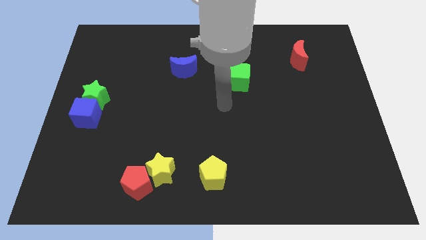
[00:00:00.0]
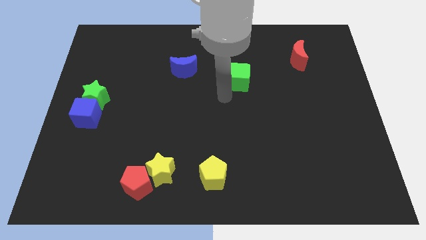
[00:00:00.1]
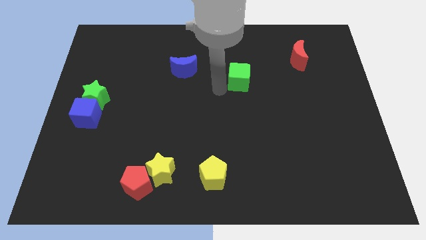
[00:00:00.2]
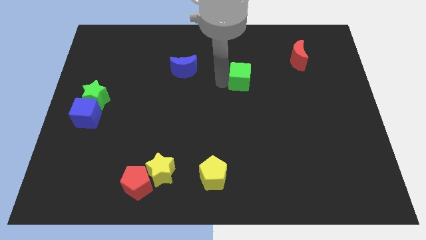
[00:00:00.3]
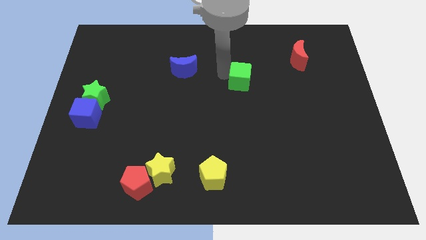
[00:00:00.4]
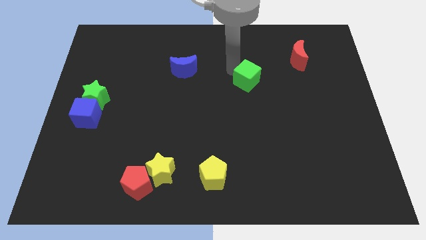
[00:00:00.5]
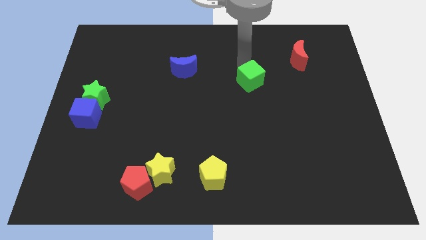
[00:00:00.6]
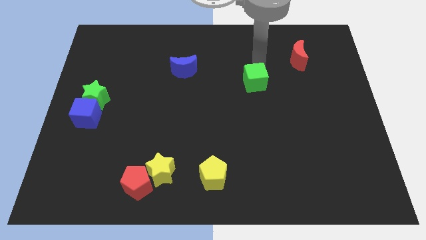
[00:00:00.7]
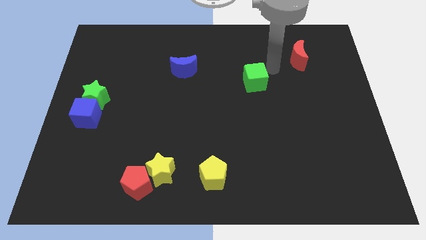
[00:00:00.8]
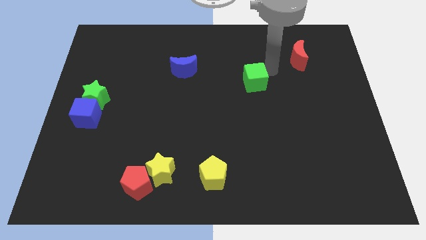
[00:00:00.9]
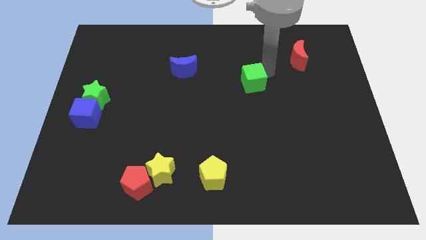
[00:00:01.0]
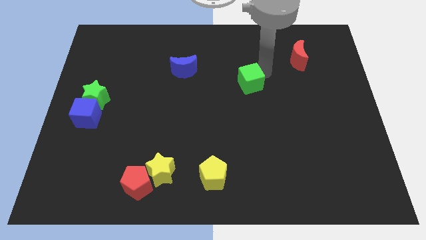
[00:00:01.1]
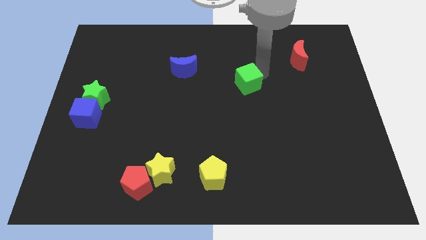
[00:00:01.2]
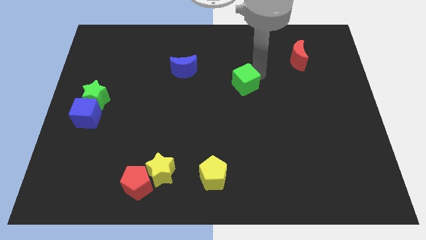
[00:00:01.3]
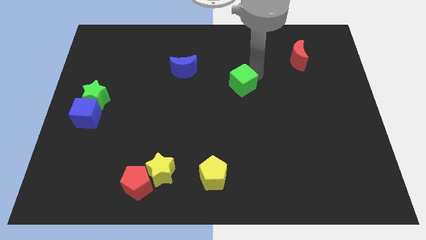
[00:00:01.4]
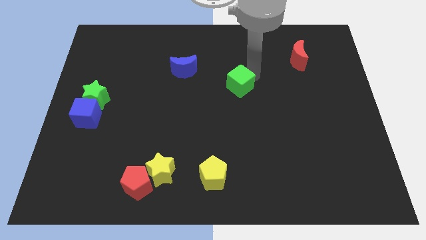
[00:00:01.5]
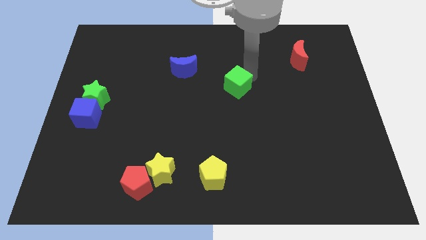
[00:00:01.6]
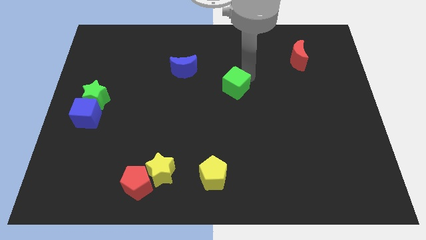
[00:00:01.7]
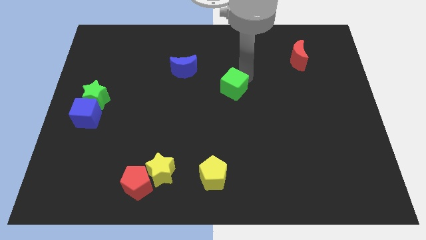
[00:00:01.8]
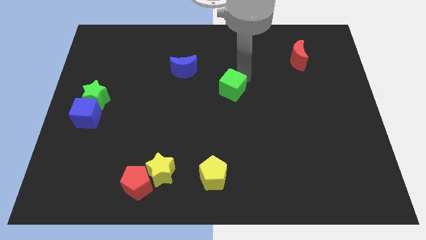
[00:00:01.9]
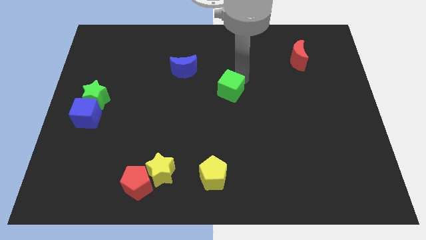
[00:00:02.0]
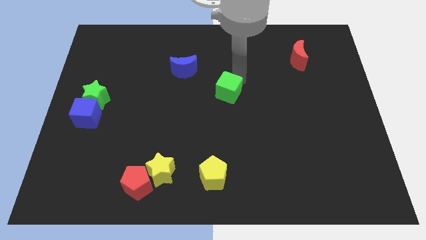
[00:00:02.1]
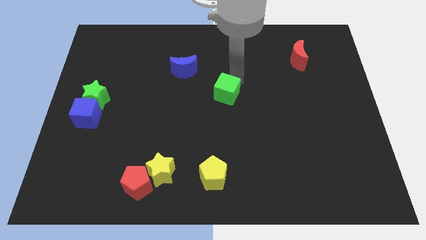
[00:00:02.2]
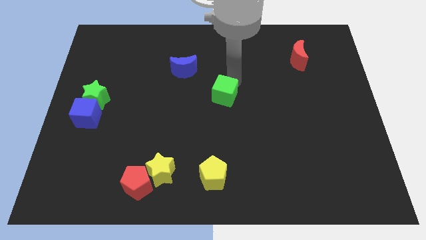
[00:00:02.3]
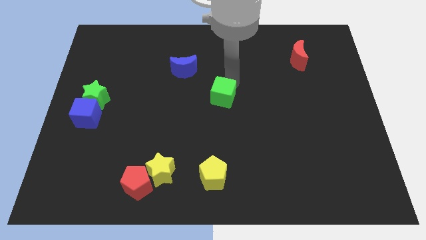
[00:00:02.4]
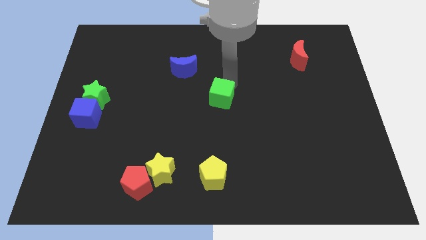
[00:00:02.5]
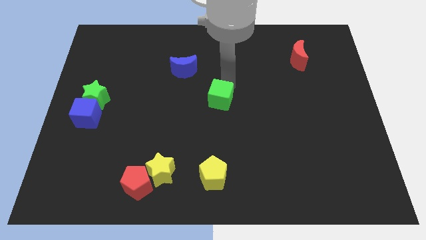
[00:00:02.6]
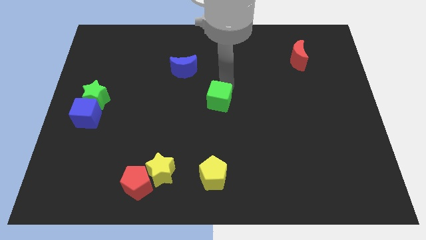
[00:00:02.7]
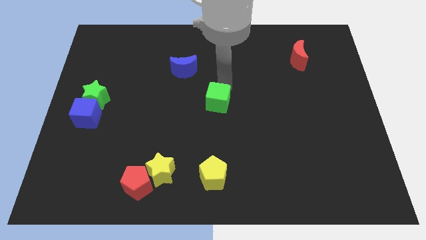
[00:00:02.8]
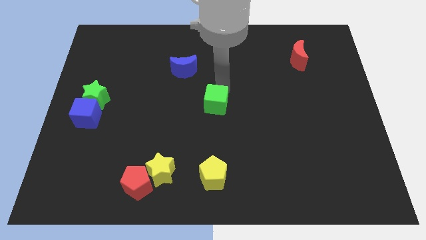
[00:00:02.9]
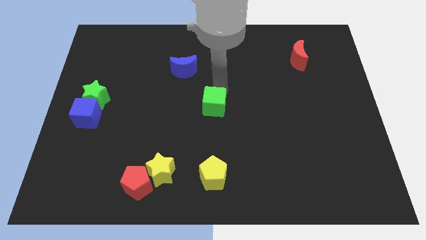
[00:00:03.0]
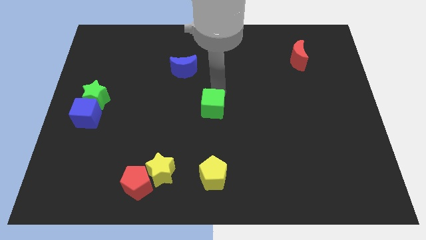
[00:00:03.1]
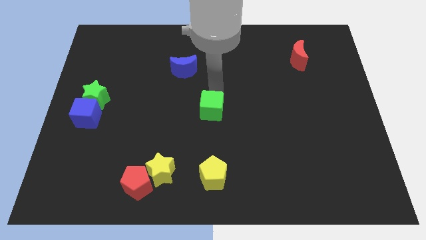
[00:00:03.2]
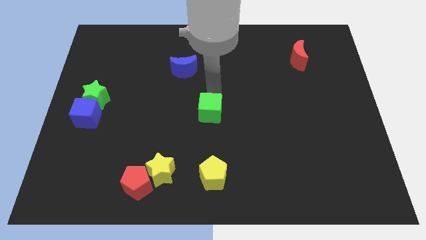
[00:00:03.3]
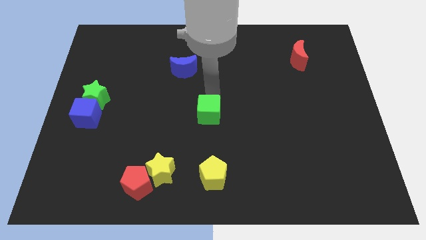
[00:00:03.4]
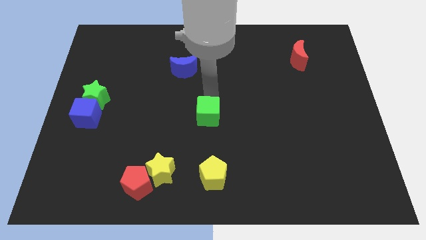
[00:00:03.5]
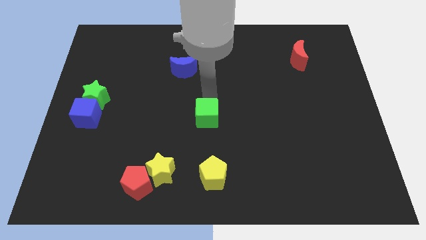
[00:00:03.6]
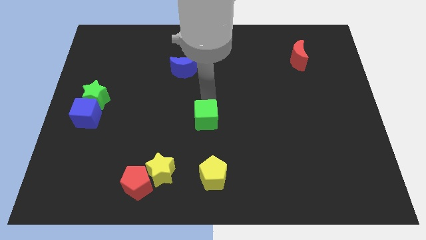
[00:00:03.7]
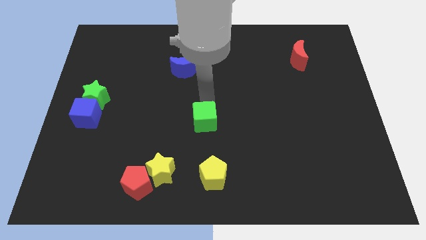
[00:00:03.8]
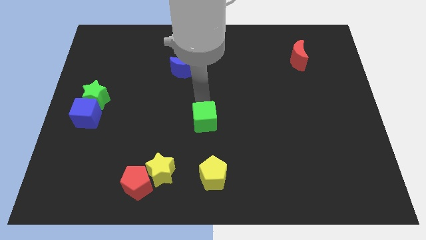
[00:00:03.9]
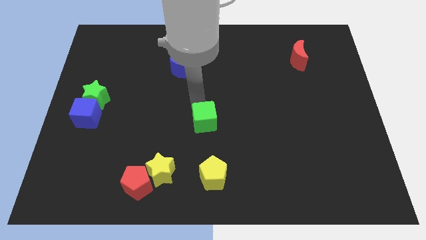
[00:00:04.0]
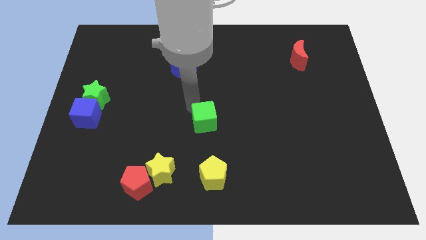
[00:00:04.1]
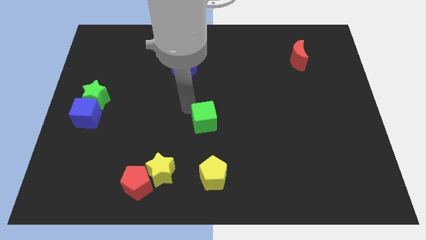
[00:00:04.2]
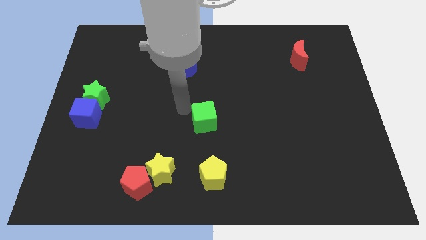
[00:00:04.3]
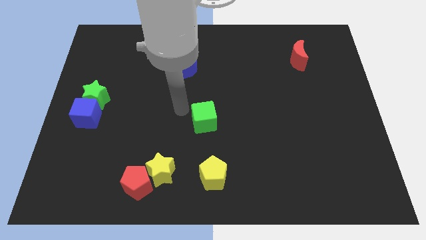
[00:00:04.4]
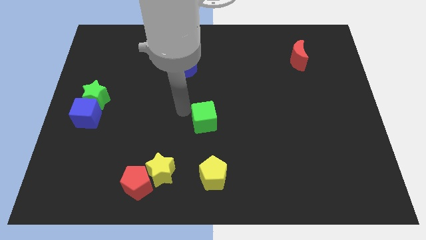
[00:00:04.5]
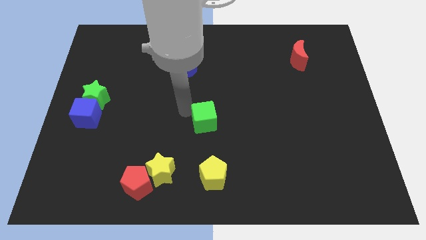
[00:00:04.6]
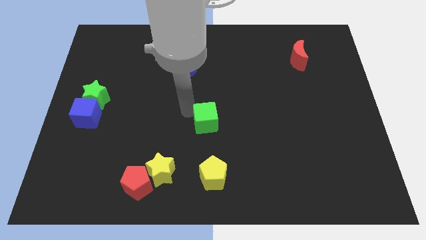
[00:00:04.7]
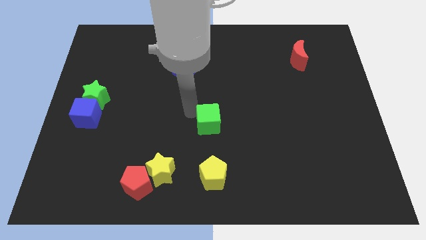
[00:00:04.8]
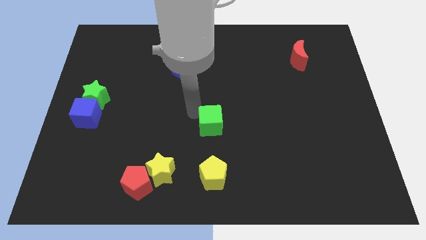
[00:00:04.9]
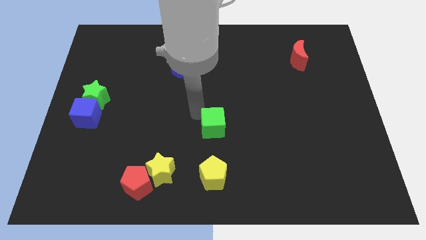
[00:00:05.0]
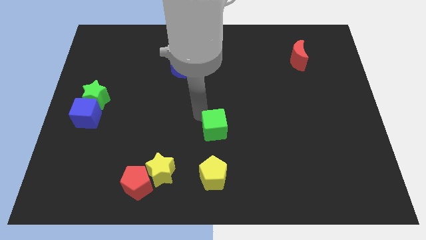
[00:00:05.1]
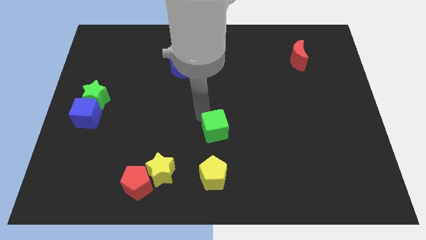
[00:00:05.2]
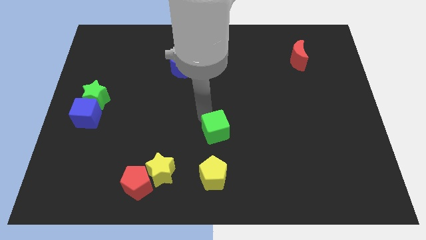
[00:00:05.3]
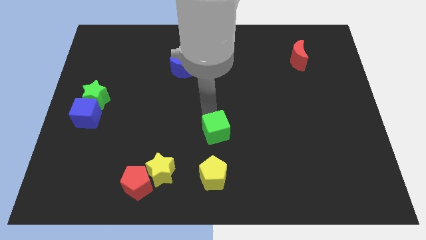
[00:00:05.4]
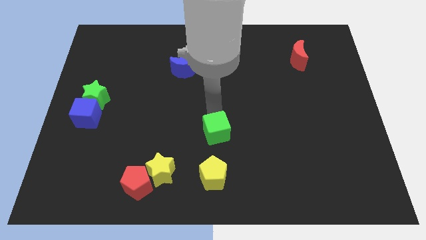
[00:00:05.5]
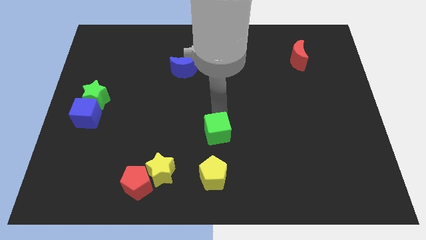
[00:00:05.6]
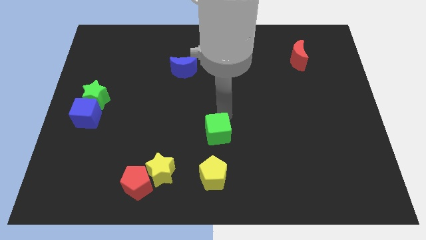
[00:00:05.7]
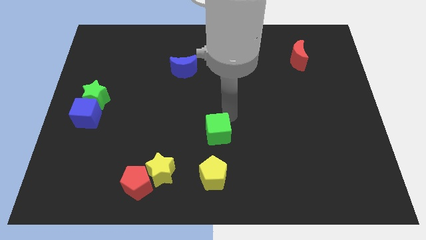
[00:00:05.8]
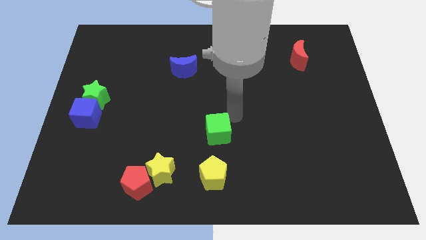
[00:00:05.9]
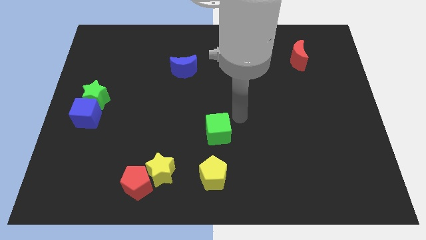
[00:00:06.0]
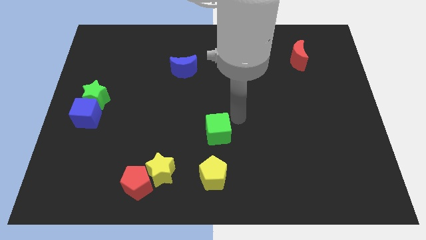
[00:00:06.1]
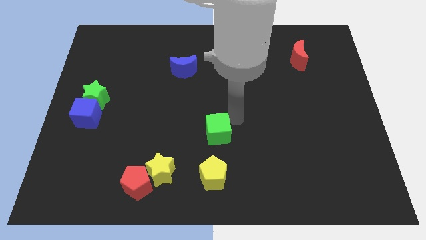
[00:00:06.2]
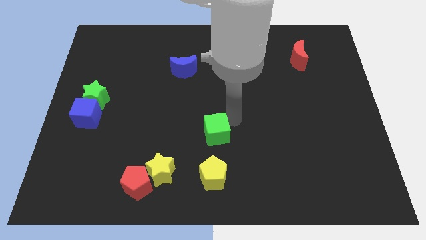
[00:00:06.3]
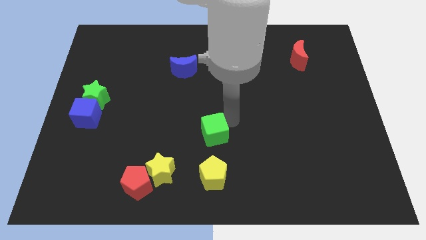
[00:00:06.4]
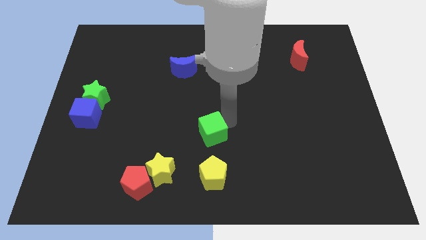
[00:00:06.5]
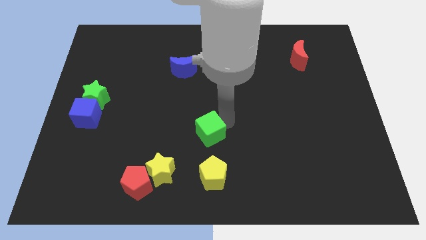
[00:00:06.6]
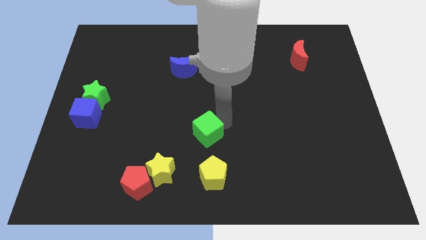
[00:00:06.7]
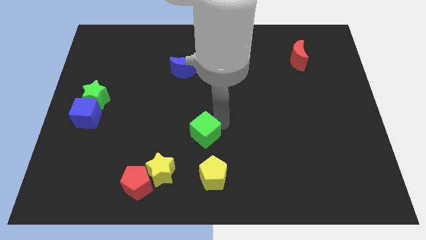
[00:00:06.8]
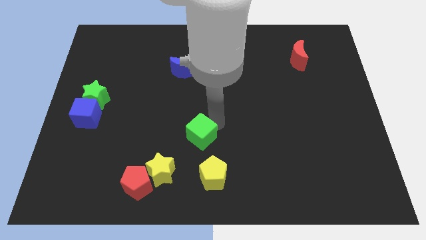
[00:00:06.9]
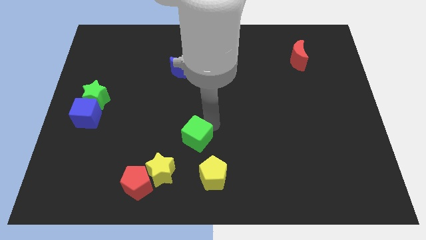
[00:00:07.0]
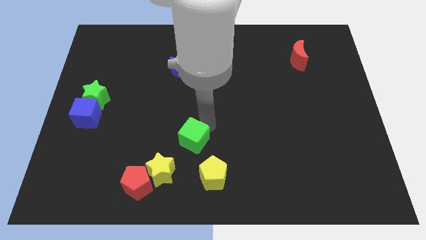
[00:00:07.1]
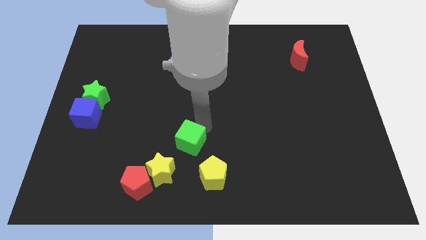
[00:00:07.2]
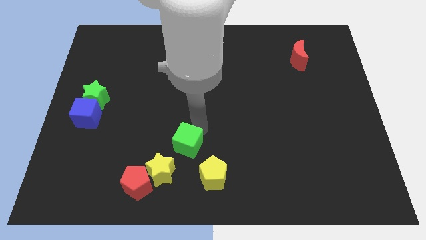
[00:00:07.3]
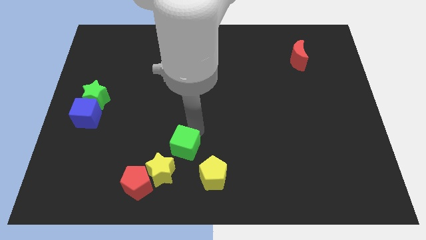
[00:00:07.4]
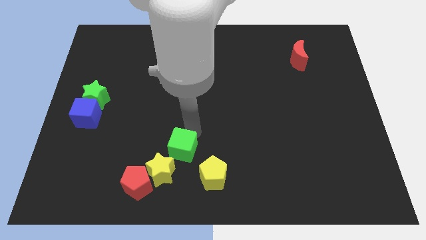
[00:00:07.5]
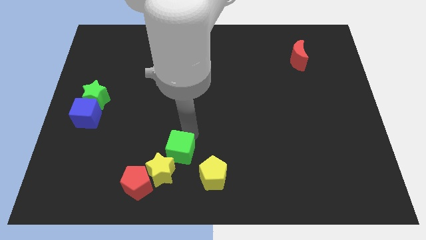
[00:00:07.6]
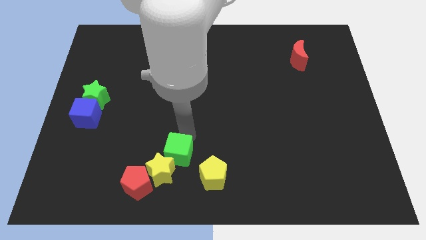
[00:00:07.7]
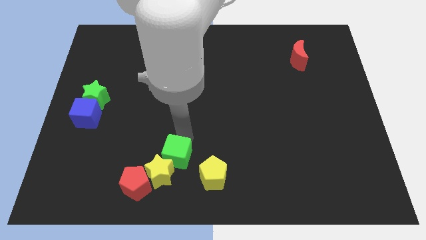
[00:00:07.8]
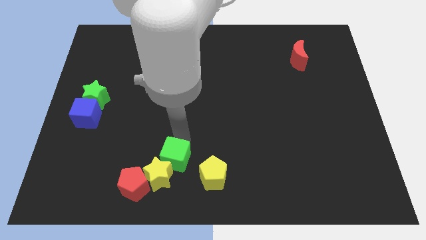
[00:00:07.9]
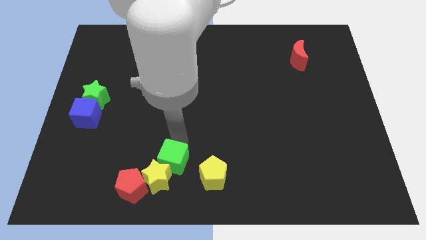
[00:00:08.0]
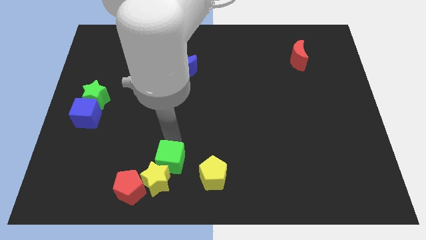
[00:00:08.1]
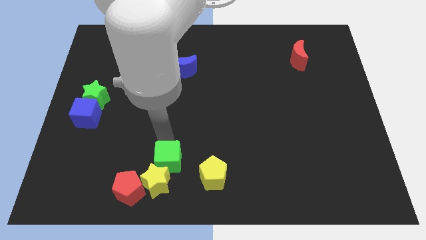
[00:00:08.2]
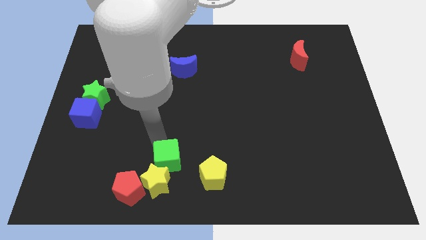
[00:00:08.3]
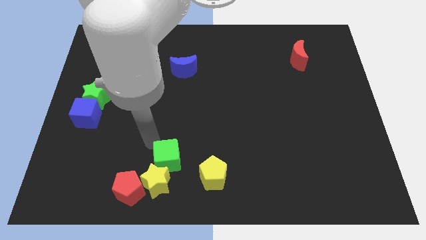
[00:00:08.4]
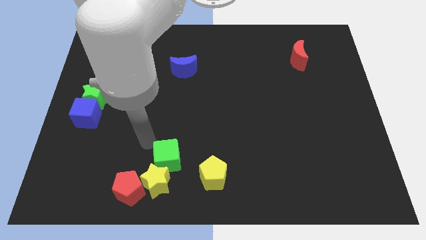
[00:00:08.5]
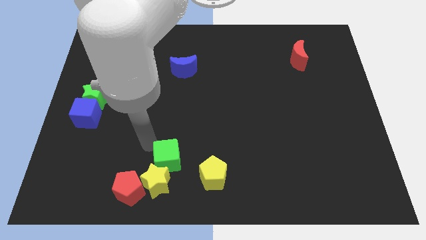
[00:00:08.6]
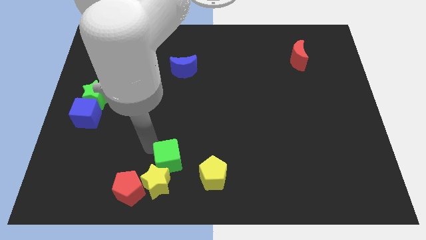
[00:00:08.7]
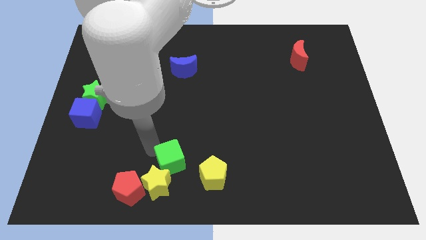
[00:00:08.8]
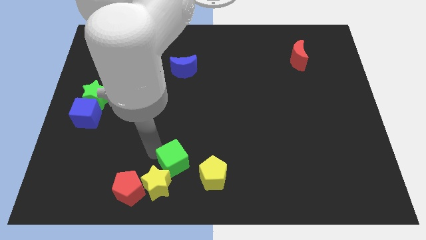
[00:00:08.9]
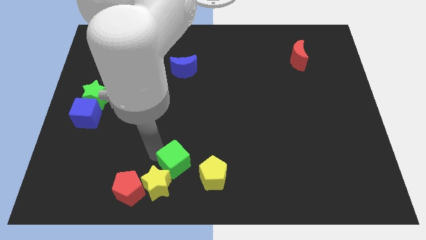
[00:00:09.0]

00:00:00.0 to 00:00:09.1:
put the green cube to the bottom side
